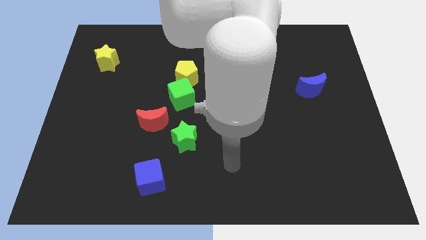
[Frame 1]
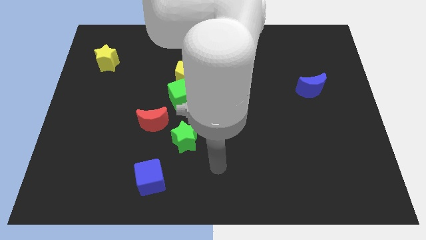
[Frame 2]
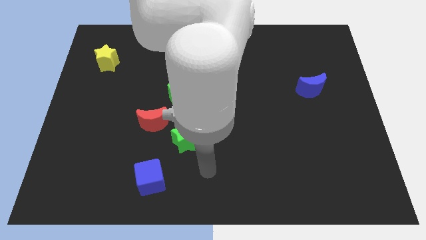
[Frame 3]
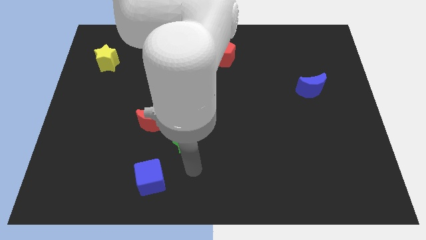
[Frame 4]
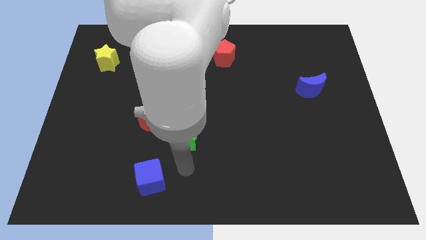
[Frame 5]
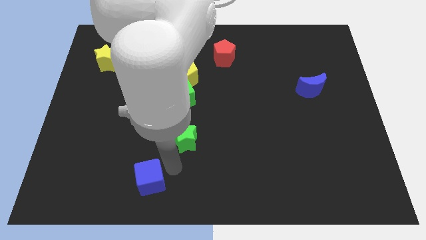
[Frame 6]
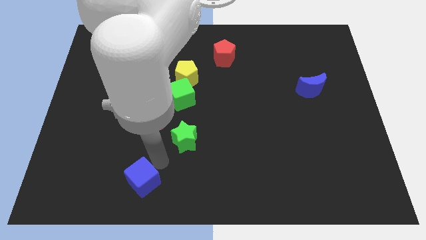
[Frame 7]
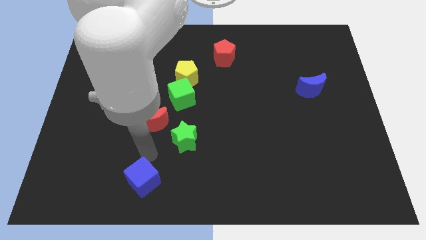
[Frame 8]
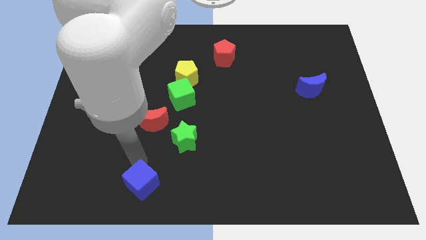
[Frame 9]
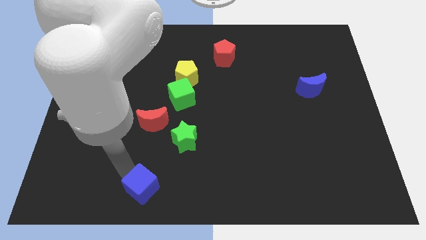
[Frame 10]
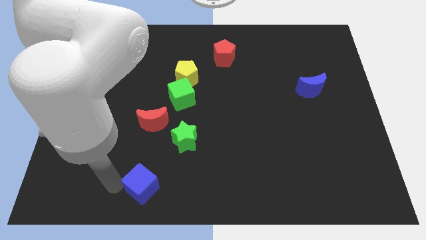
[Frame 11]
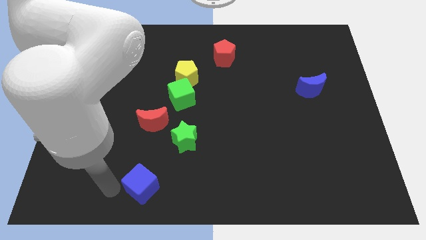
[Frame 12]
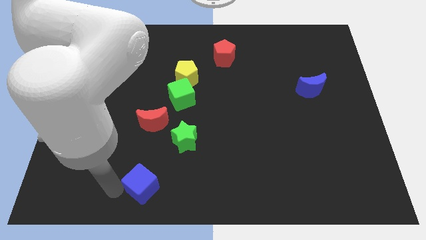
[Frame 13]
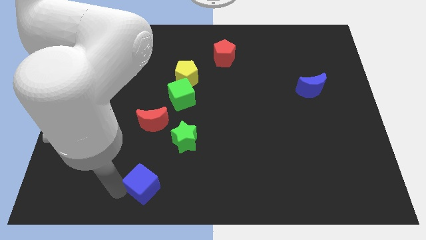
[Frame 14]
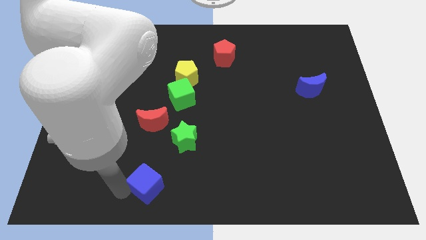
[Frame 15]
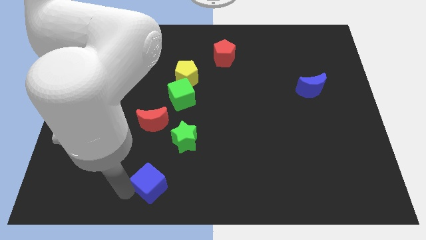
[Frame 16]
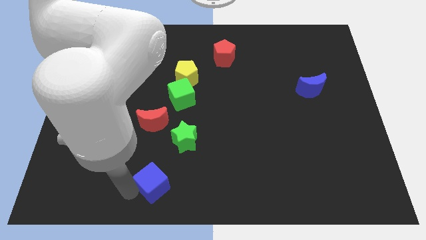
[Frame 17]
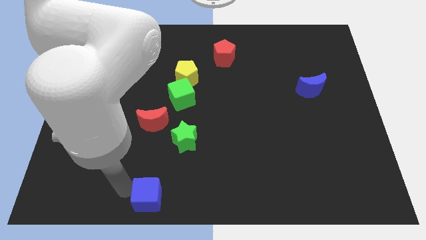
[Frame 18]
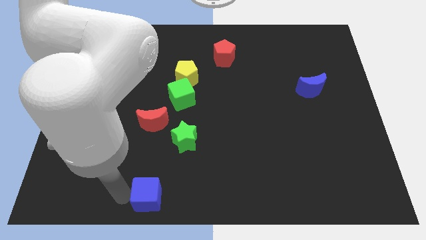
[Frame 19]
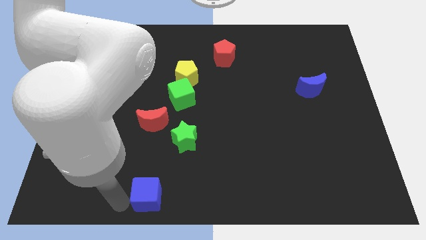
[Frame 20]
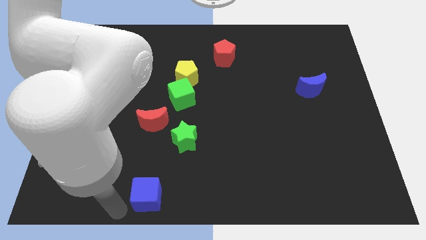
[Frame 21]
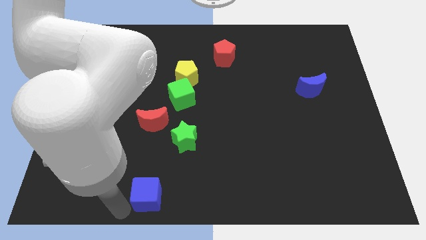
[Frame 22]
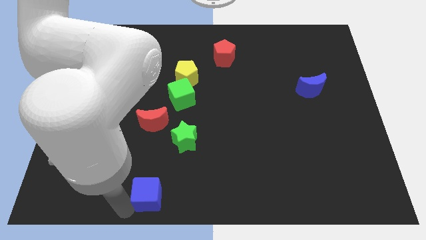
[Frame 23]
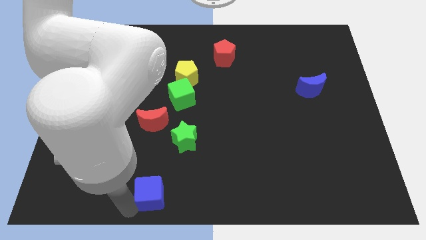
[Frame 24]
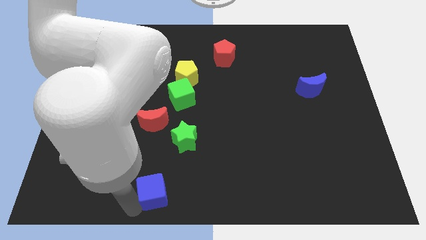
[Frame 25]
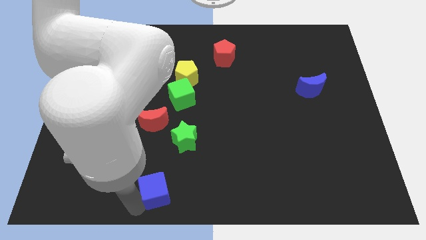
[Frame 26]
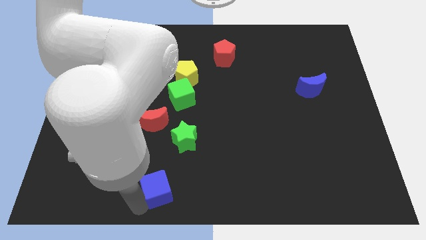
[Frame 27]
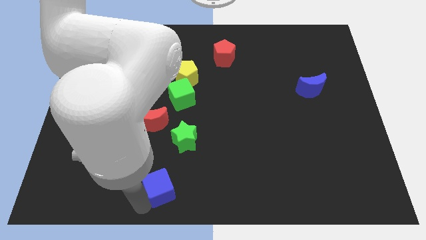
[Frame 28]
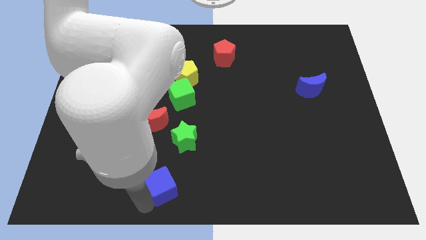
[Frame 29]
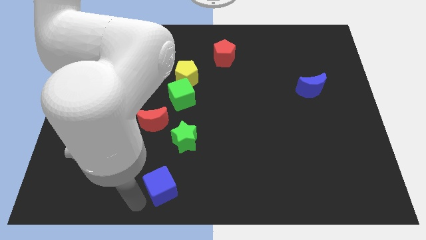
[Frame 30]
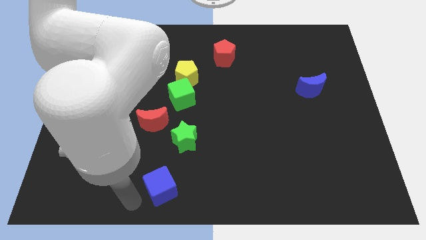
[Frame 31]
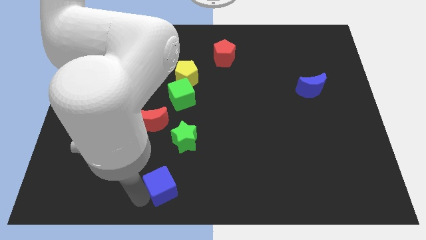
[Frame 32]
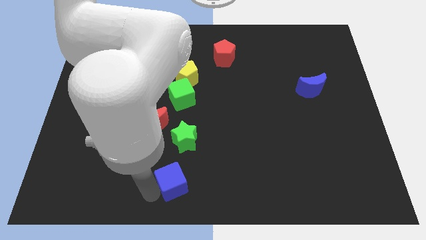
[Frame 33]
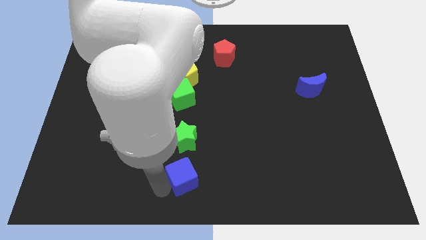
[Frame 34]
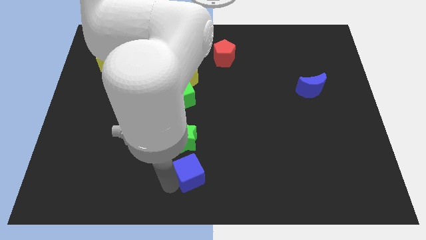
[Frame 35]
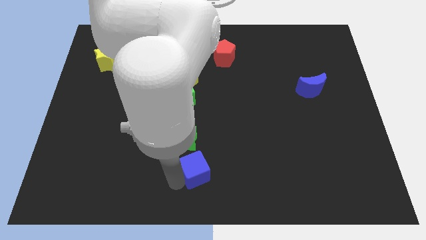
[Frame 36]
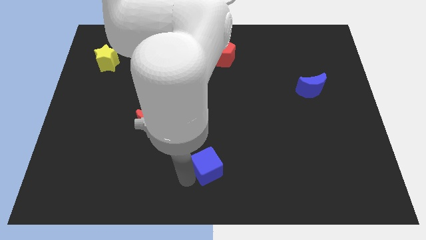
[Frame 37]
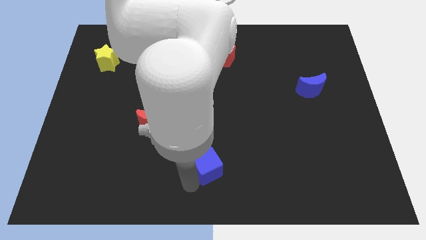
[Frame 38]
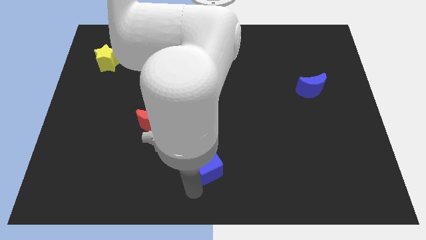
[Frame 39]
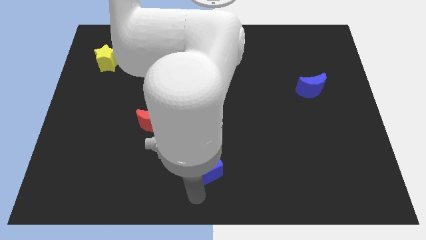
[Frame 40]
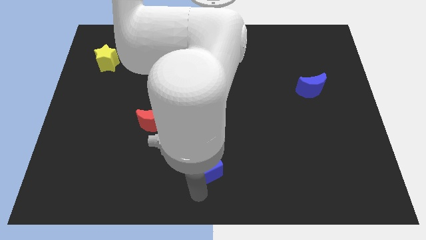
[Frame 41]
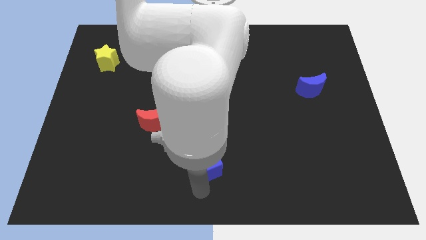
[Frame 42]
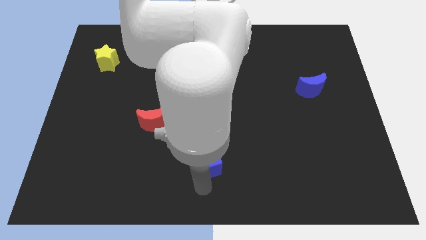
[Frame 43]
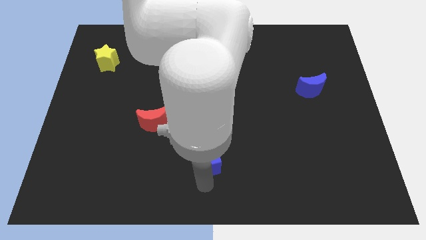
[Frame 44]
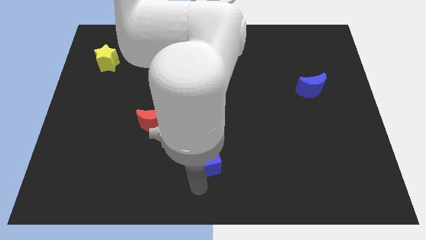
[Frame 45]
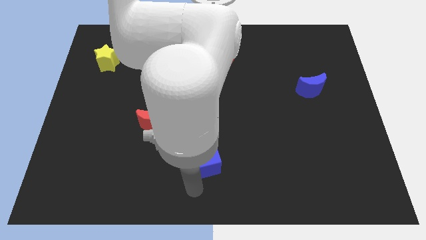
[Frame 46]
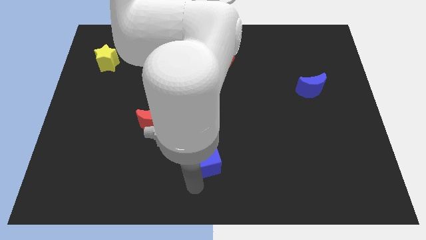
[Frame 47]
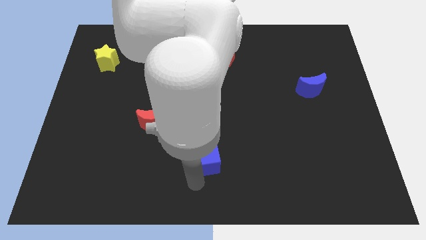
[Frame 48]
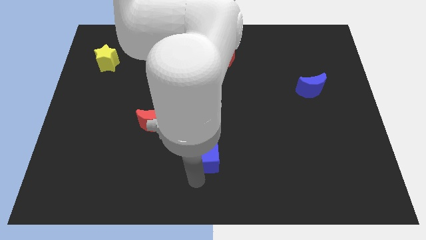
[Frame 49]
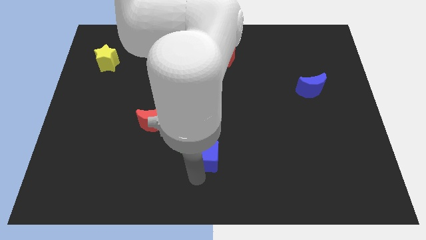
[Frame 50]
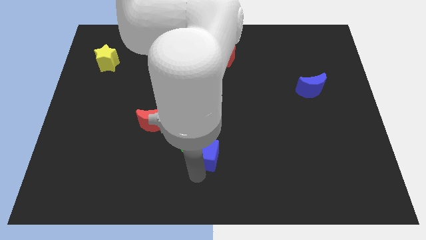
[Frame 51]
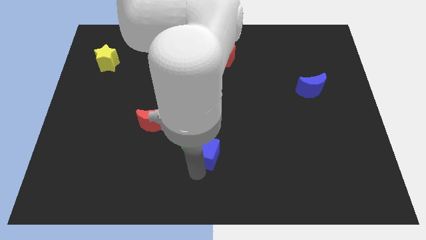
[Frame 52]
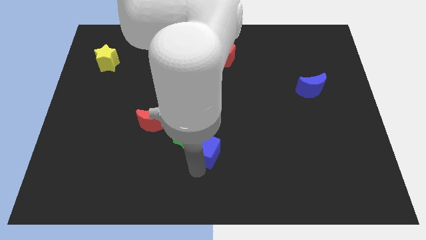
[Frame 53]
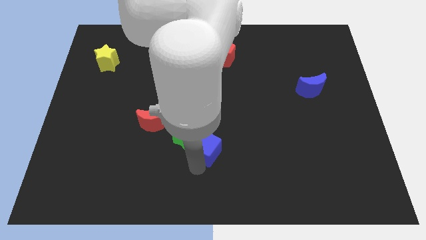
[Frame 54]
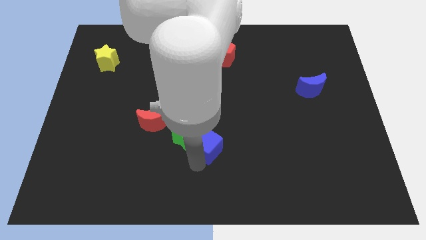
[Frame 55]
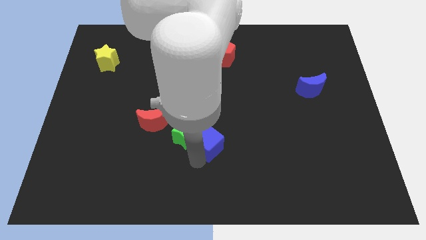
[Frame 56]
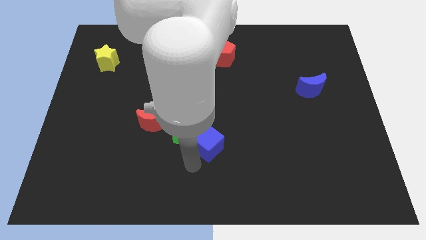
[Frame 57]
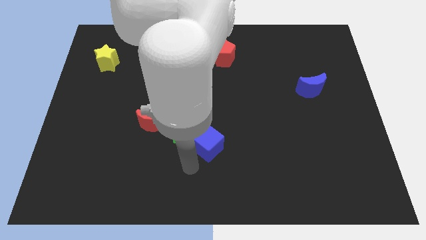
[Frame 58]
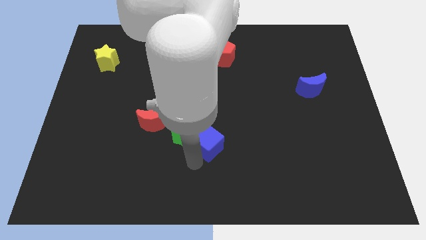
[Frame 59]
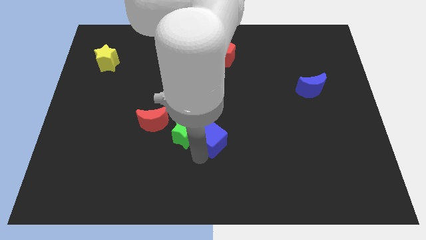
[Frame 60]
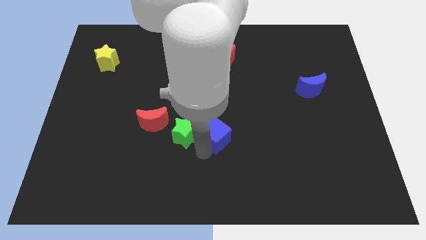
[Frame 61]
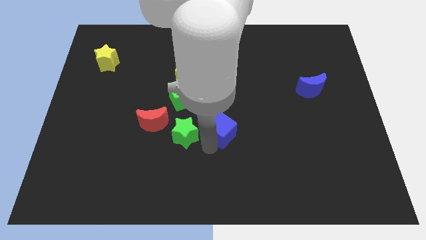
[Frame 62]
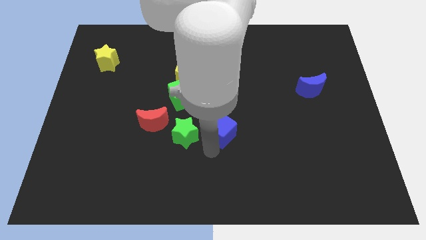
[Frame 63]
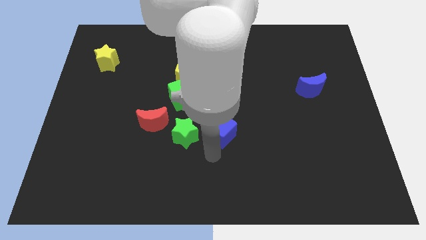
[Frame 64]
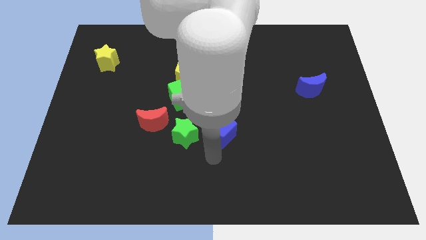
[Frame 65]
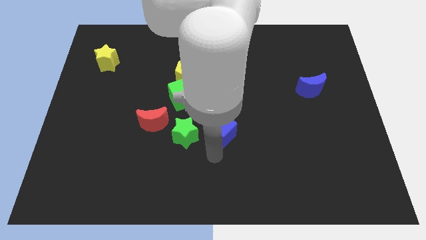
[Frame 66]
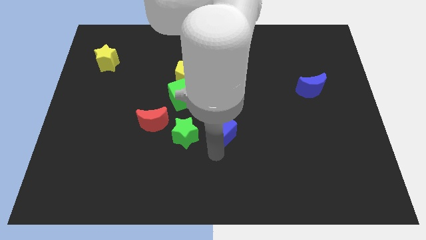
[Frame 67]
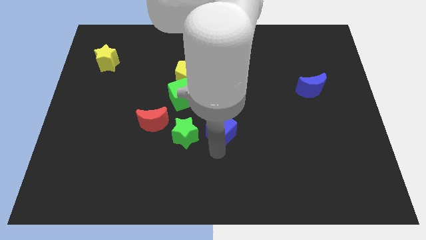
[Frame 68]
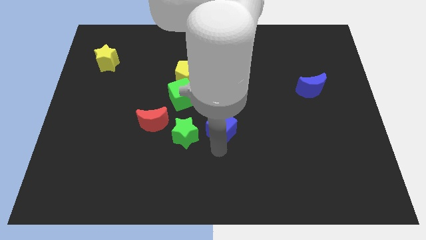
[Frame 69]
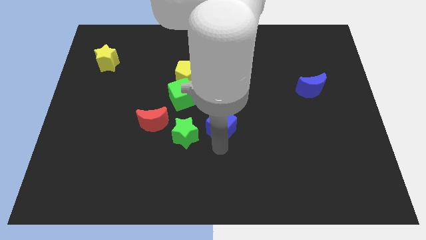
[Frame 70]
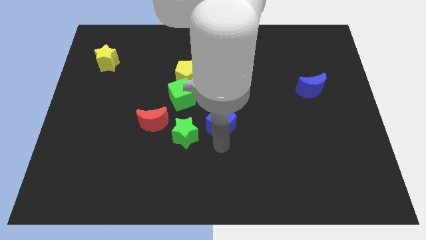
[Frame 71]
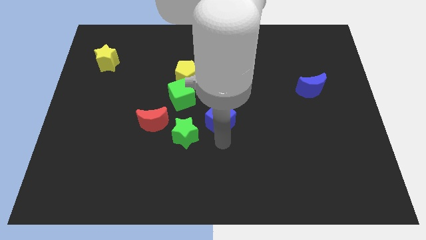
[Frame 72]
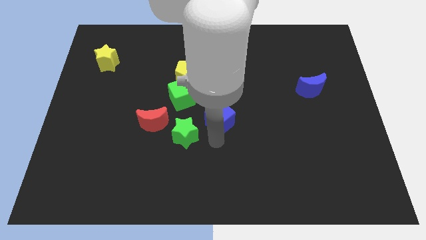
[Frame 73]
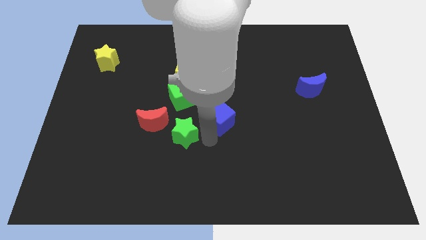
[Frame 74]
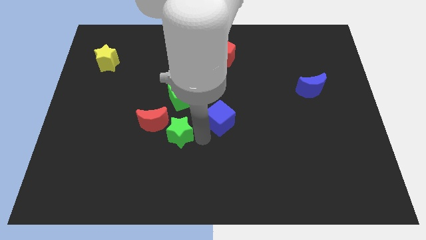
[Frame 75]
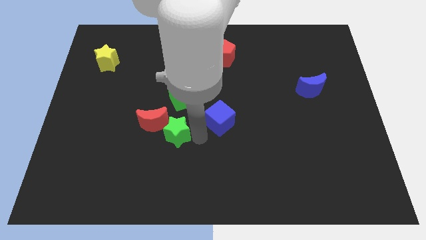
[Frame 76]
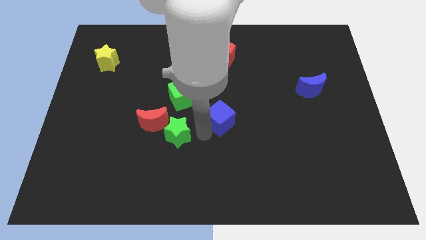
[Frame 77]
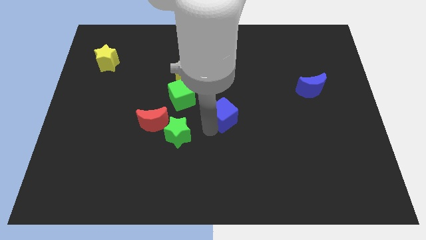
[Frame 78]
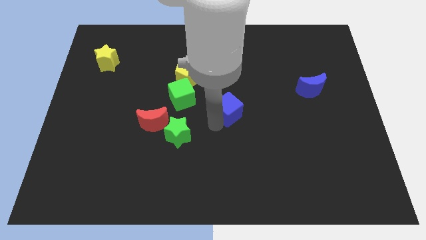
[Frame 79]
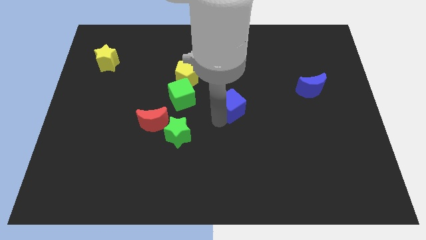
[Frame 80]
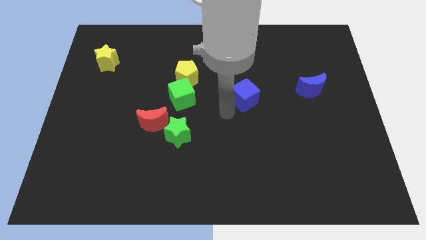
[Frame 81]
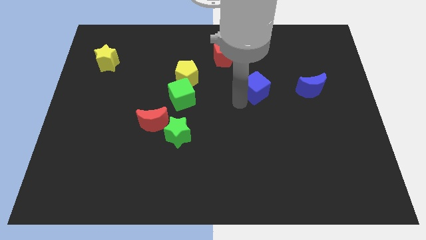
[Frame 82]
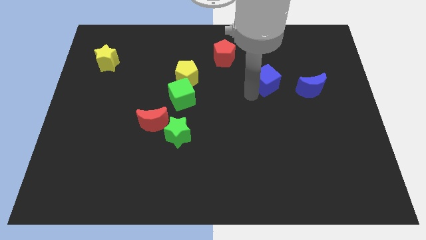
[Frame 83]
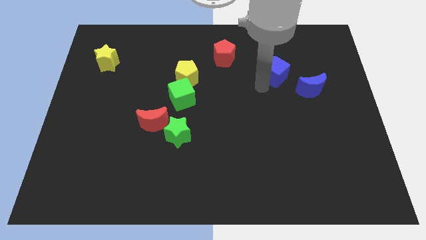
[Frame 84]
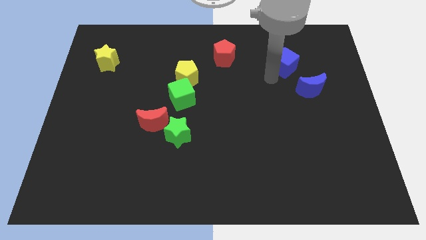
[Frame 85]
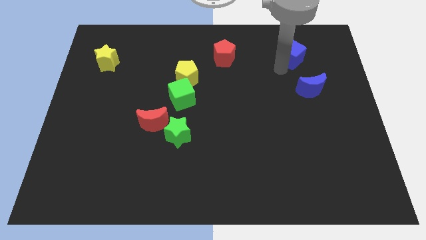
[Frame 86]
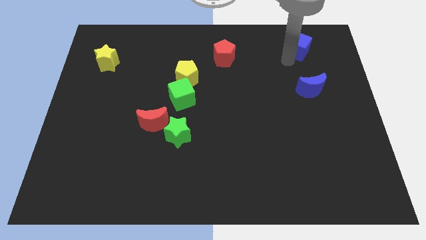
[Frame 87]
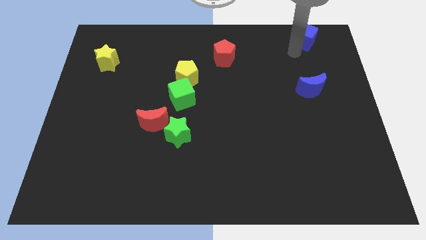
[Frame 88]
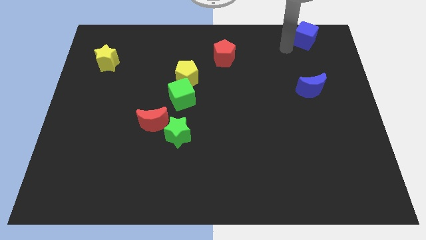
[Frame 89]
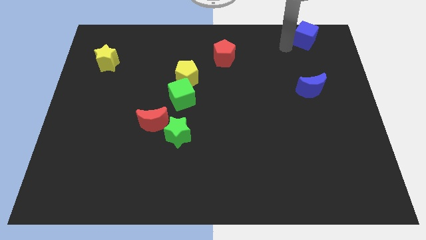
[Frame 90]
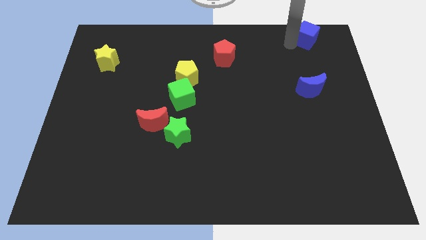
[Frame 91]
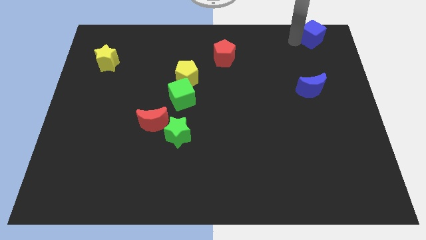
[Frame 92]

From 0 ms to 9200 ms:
move the blue cube to the upper right corner
